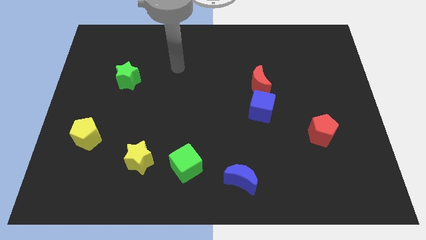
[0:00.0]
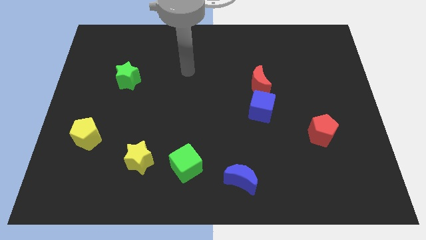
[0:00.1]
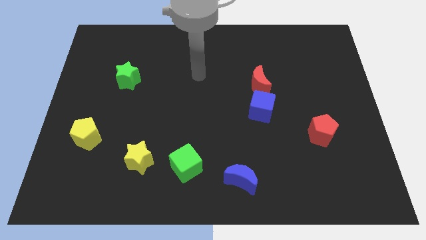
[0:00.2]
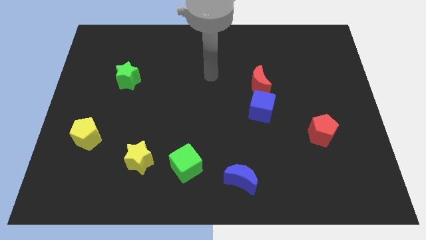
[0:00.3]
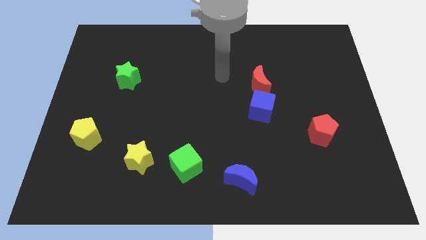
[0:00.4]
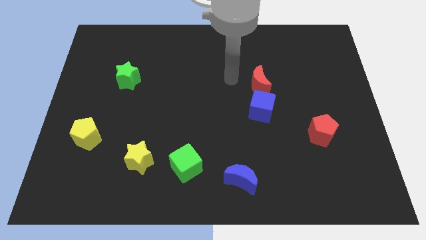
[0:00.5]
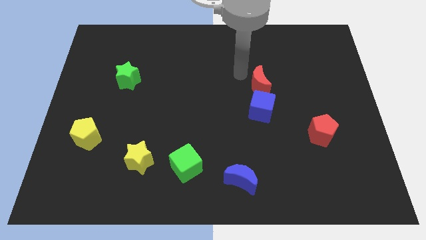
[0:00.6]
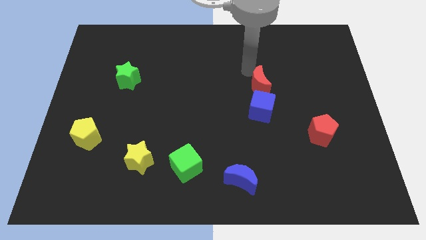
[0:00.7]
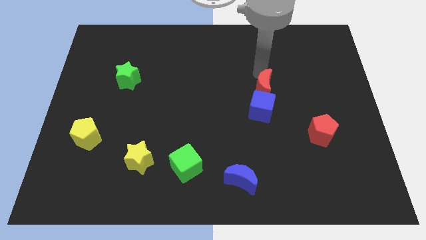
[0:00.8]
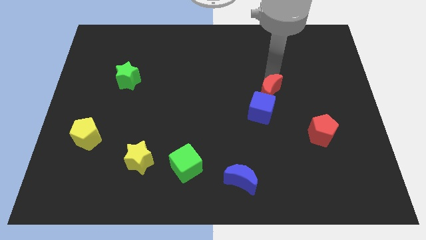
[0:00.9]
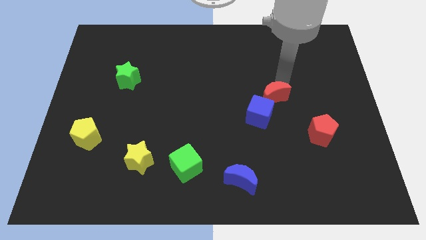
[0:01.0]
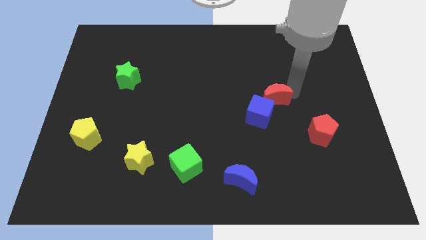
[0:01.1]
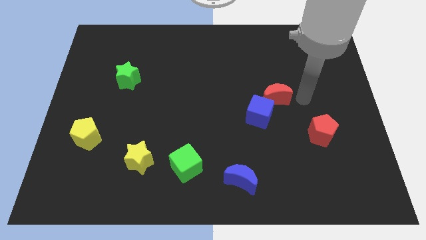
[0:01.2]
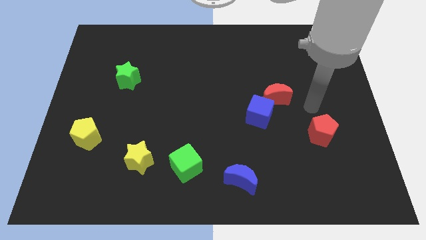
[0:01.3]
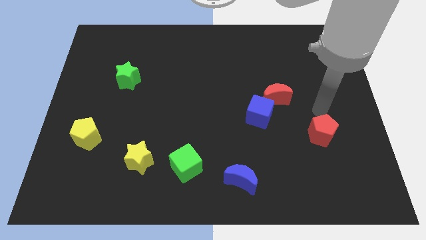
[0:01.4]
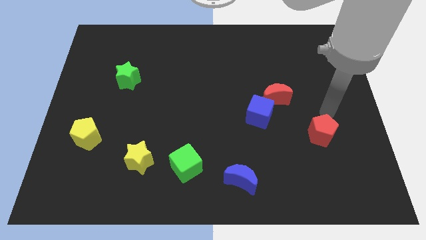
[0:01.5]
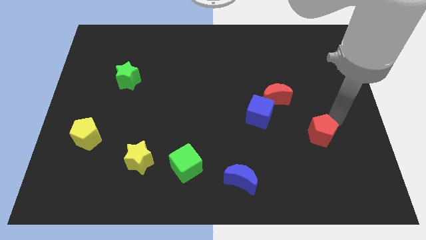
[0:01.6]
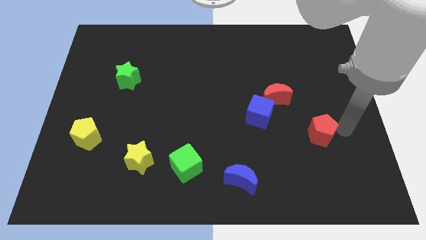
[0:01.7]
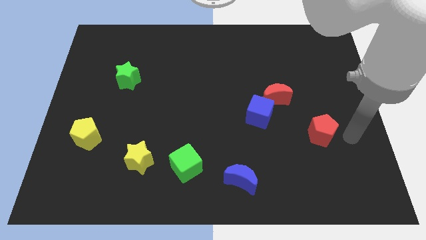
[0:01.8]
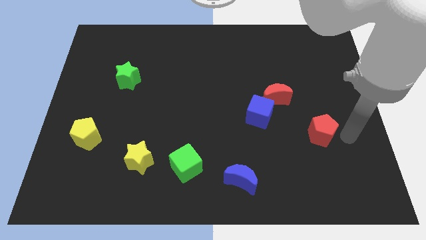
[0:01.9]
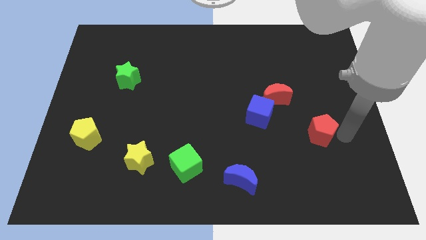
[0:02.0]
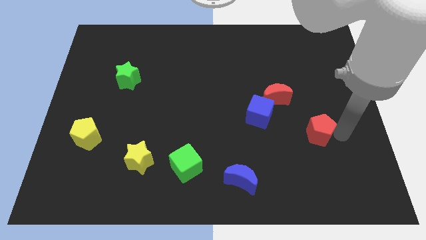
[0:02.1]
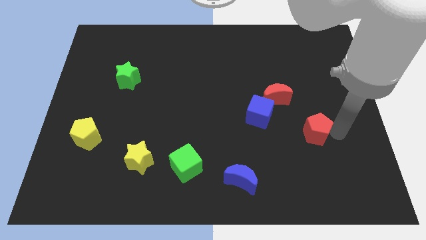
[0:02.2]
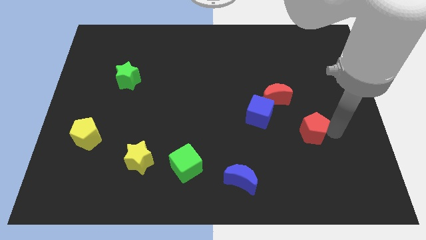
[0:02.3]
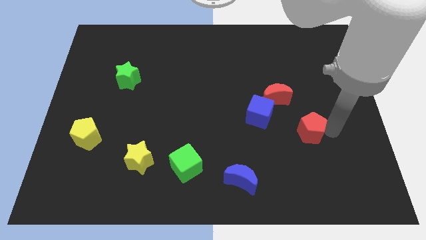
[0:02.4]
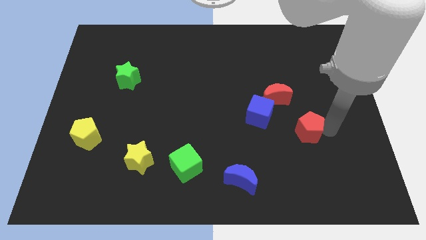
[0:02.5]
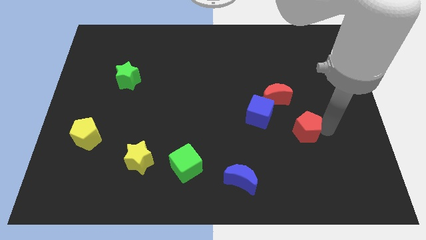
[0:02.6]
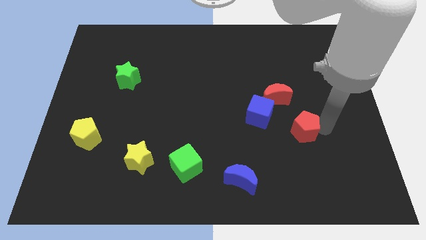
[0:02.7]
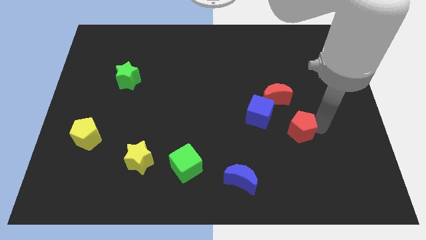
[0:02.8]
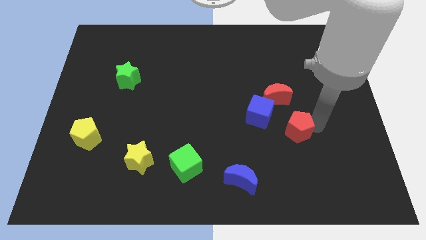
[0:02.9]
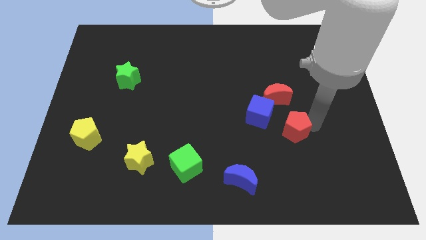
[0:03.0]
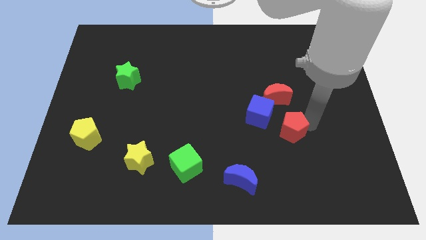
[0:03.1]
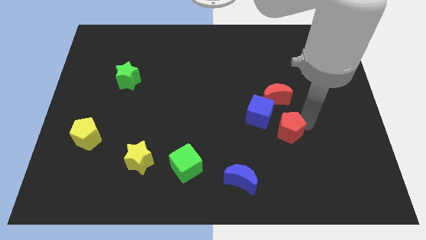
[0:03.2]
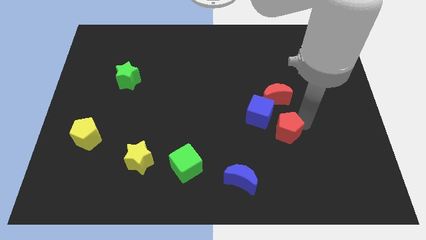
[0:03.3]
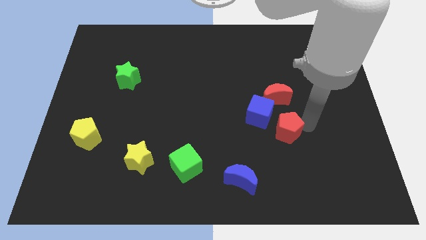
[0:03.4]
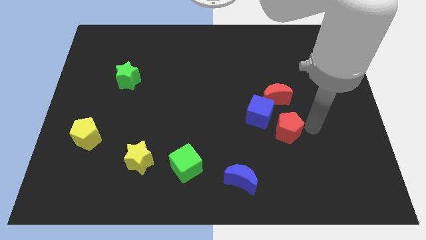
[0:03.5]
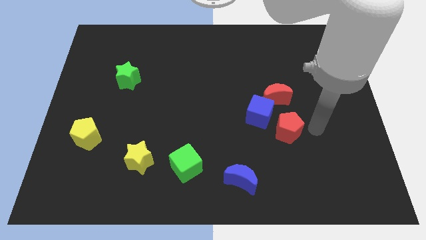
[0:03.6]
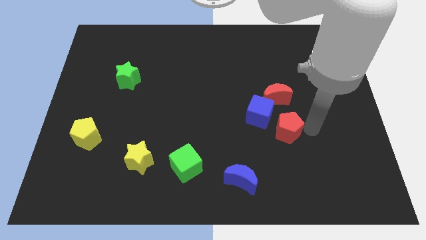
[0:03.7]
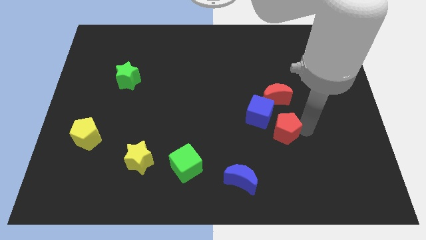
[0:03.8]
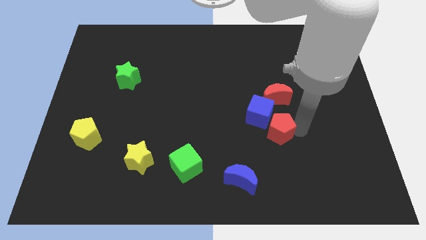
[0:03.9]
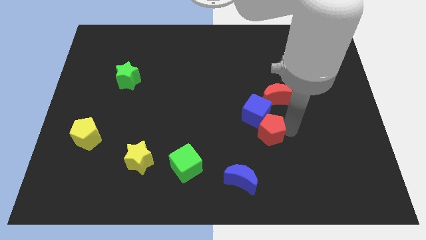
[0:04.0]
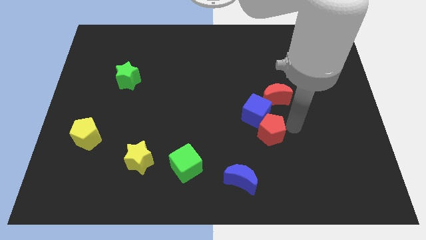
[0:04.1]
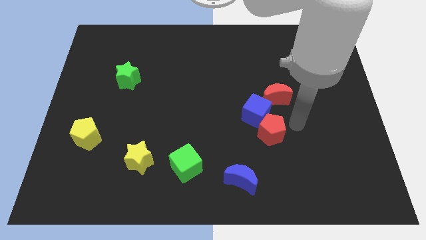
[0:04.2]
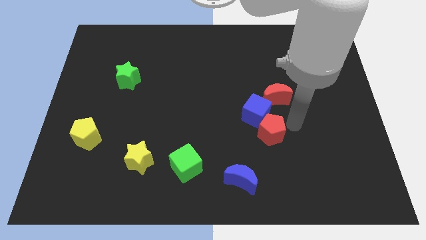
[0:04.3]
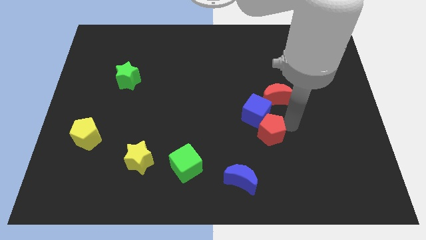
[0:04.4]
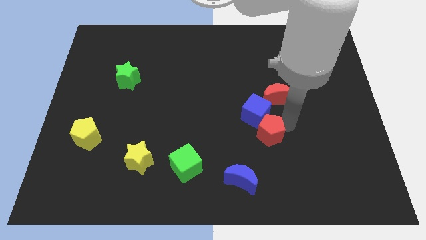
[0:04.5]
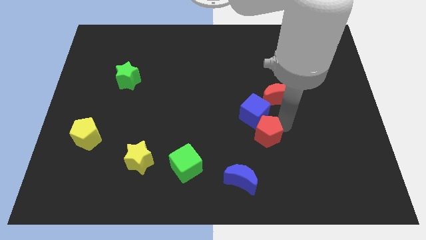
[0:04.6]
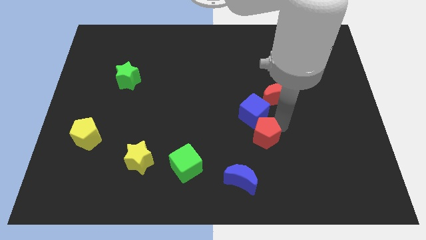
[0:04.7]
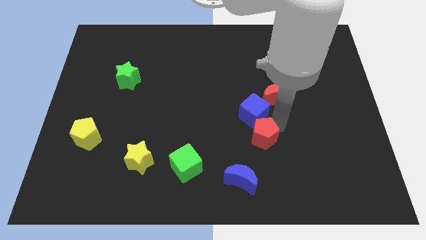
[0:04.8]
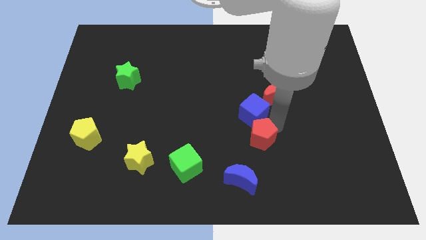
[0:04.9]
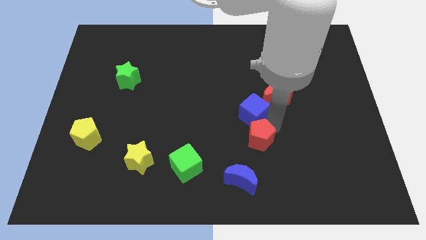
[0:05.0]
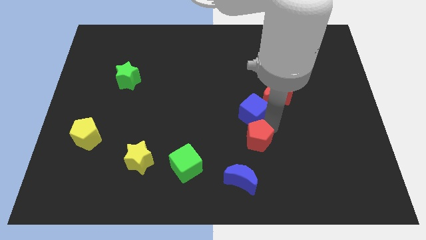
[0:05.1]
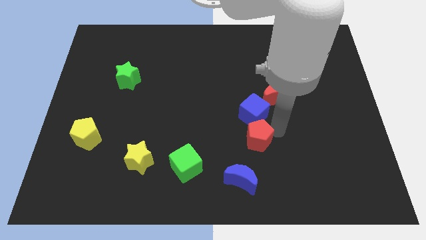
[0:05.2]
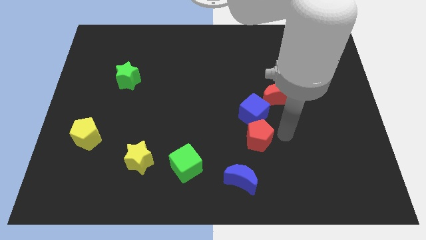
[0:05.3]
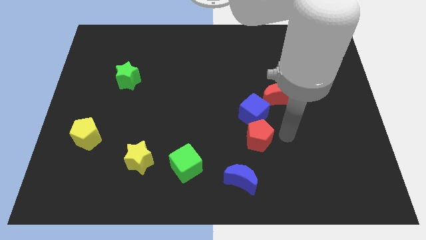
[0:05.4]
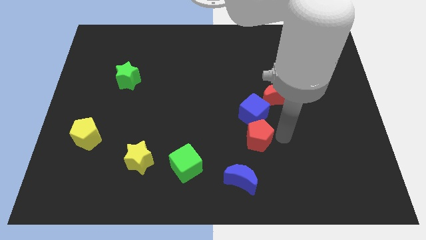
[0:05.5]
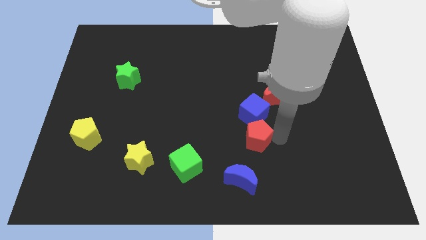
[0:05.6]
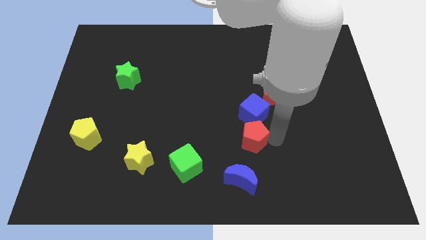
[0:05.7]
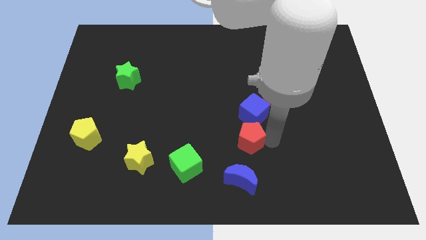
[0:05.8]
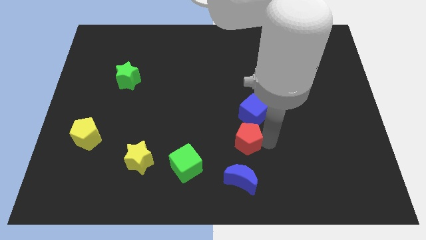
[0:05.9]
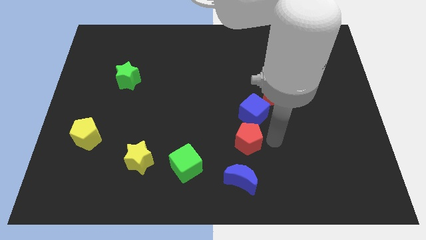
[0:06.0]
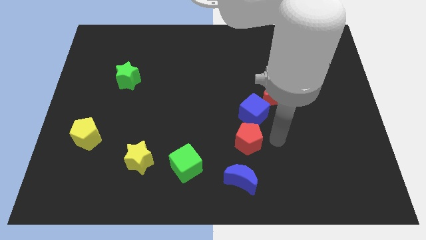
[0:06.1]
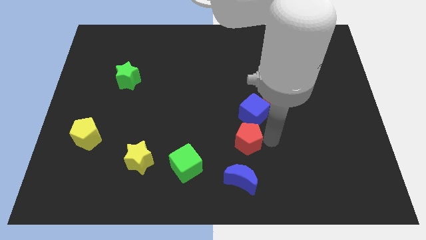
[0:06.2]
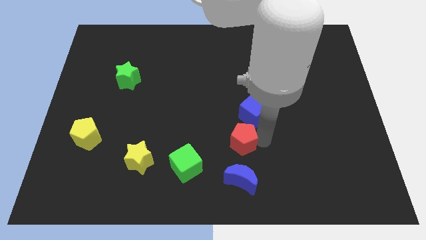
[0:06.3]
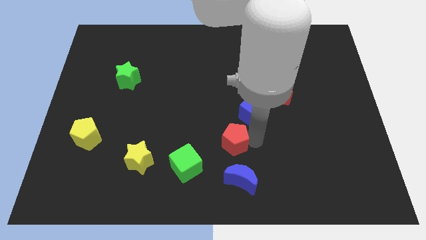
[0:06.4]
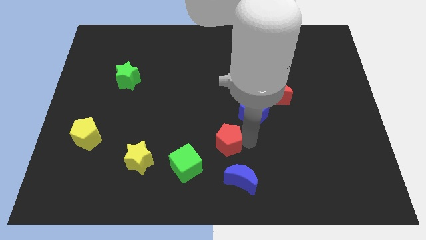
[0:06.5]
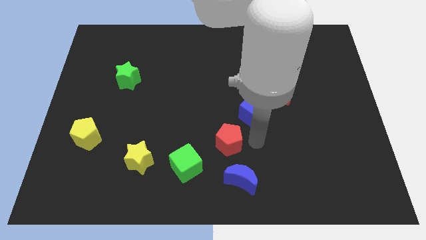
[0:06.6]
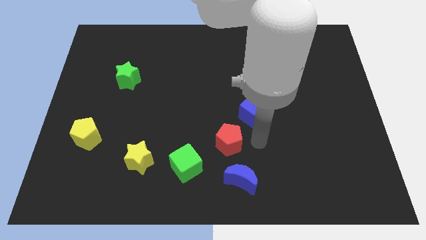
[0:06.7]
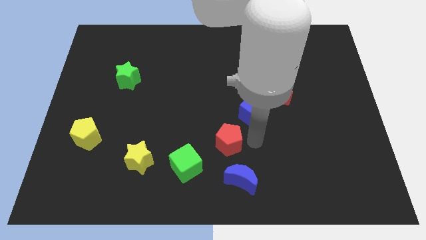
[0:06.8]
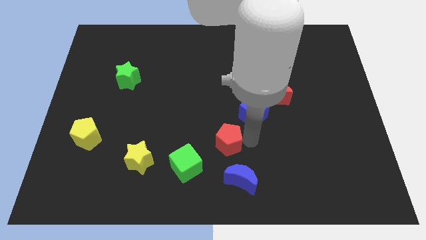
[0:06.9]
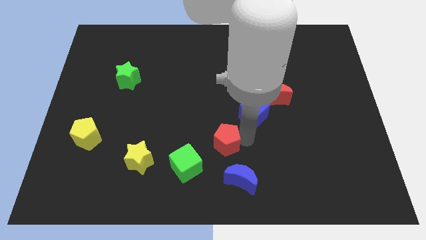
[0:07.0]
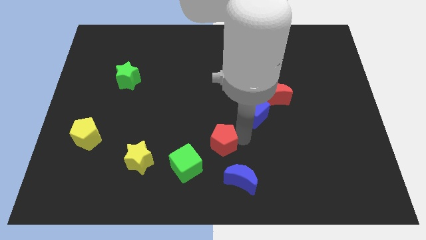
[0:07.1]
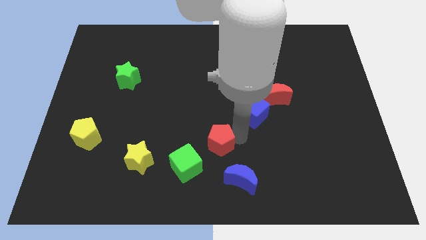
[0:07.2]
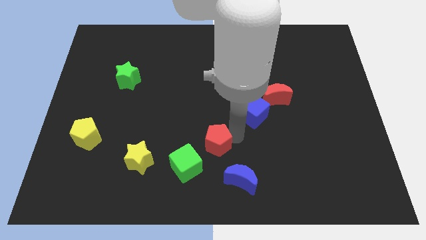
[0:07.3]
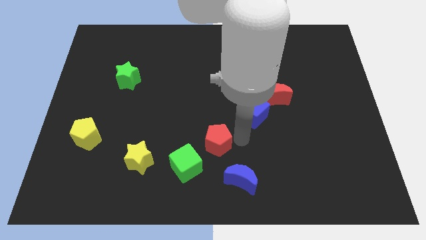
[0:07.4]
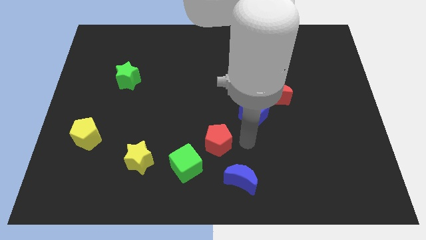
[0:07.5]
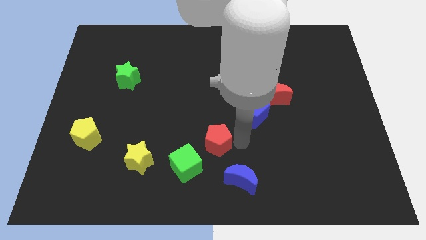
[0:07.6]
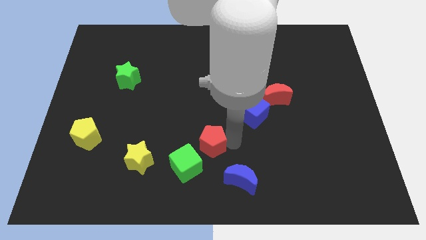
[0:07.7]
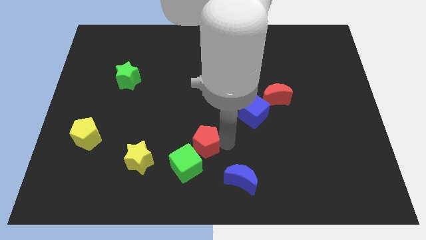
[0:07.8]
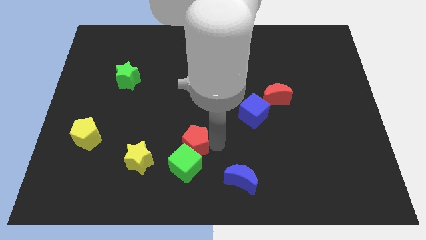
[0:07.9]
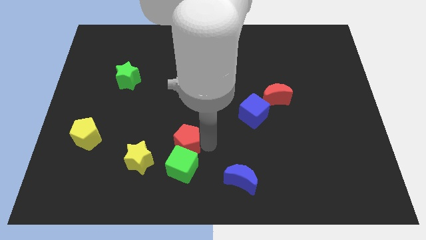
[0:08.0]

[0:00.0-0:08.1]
slide the red pentagon to the top right side of the yellow star
